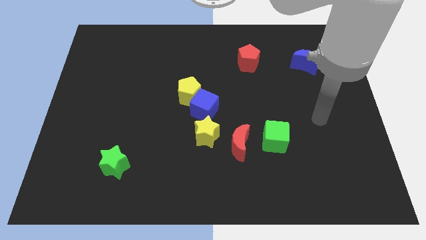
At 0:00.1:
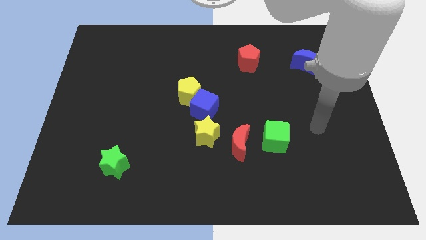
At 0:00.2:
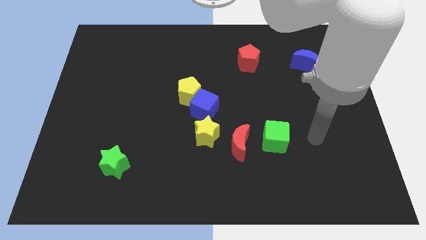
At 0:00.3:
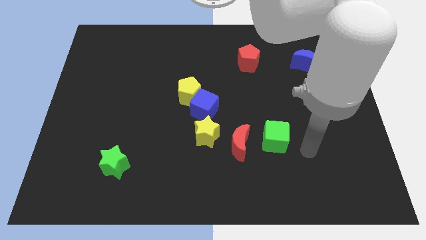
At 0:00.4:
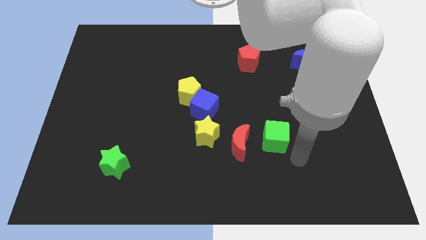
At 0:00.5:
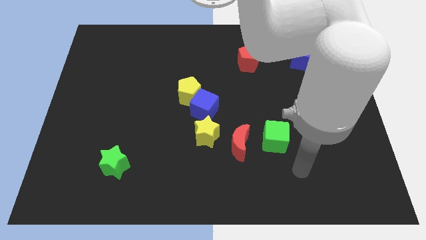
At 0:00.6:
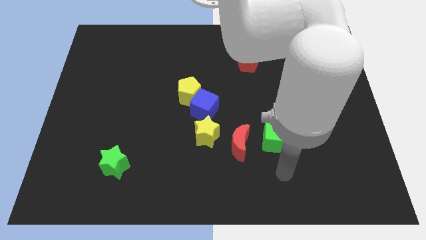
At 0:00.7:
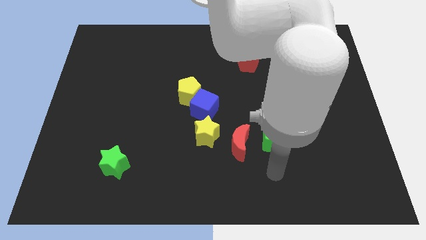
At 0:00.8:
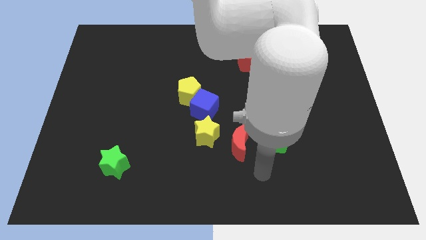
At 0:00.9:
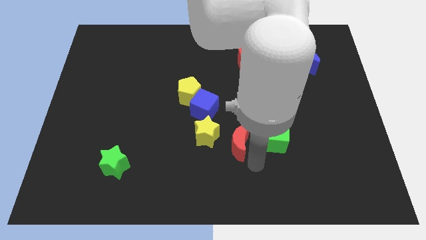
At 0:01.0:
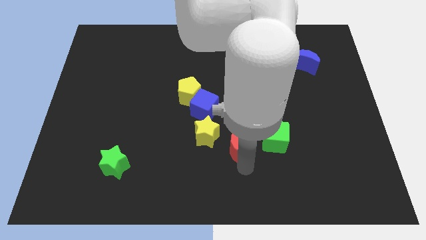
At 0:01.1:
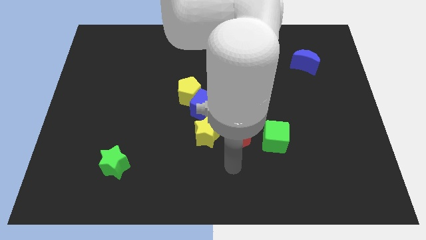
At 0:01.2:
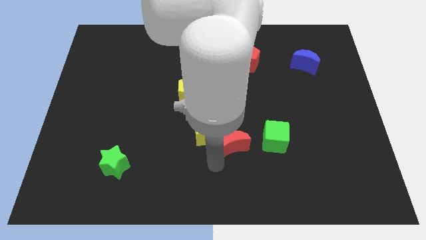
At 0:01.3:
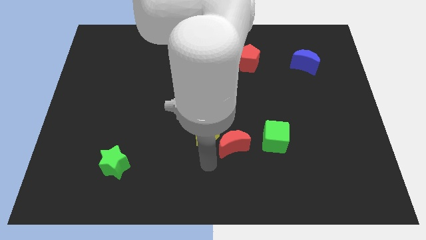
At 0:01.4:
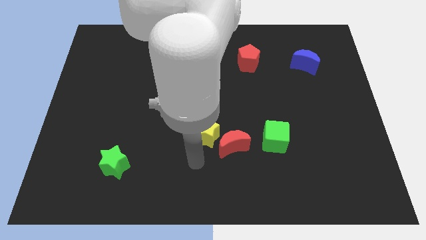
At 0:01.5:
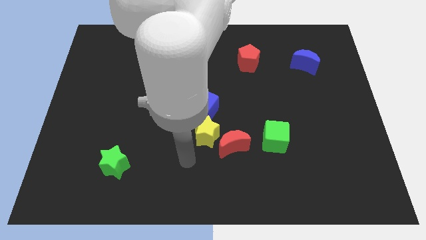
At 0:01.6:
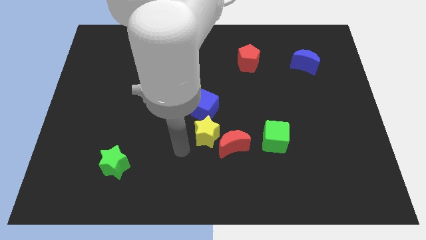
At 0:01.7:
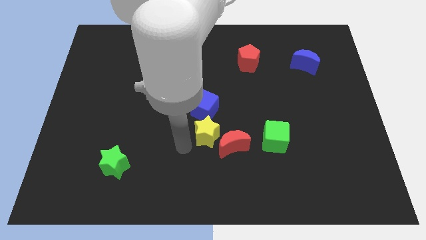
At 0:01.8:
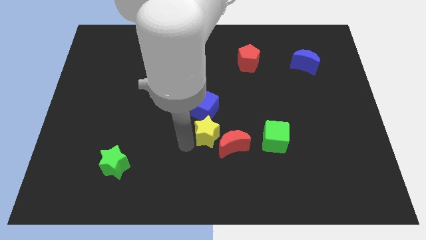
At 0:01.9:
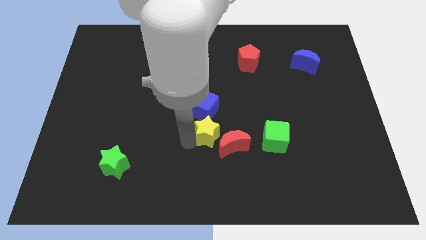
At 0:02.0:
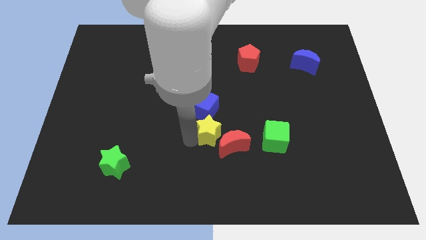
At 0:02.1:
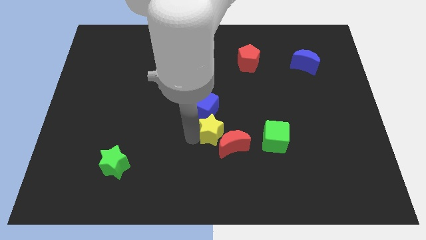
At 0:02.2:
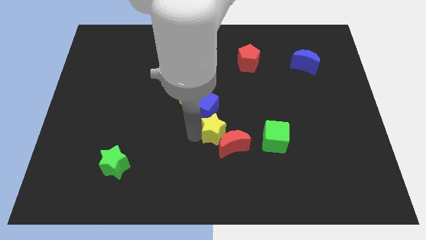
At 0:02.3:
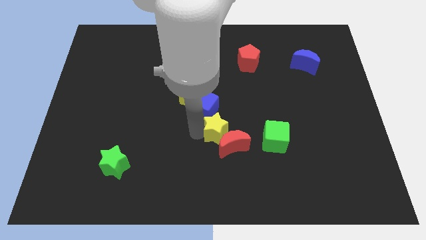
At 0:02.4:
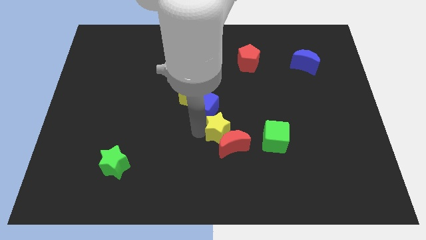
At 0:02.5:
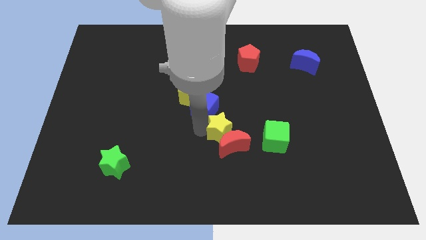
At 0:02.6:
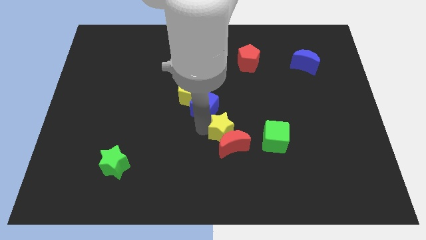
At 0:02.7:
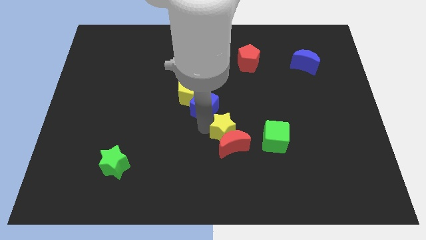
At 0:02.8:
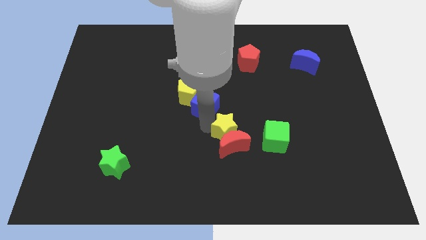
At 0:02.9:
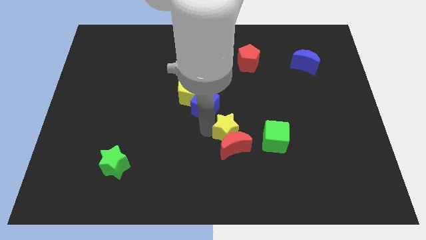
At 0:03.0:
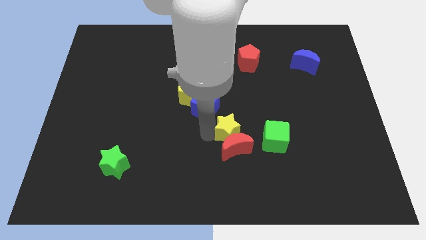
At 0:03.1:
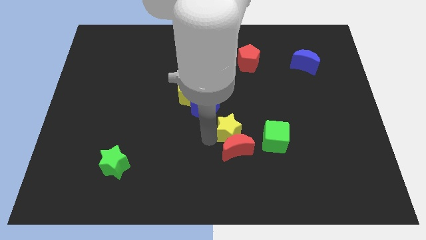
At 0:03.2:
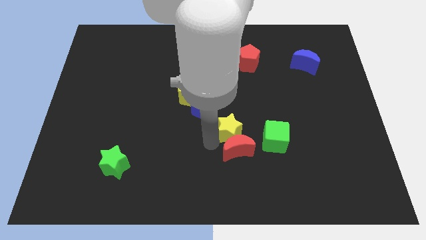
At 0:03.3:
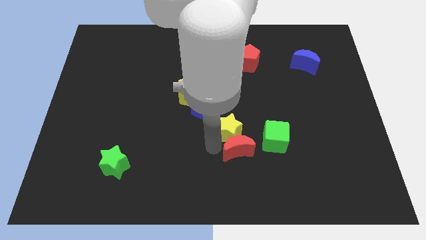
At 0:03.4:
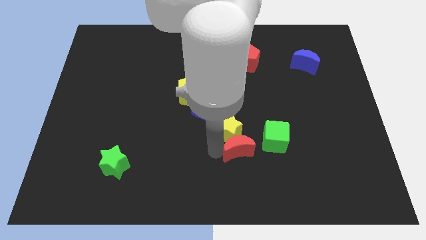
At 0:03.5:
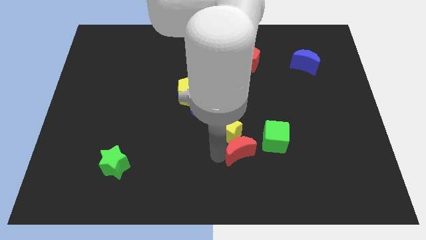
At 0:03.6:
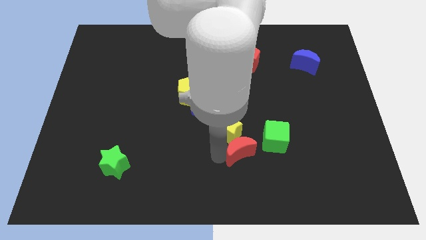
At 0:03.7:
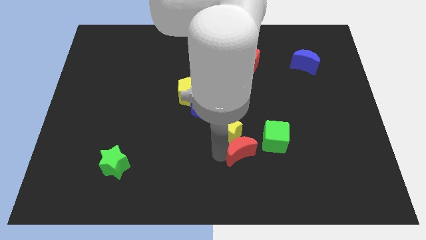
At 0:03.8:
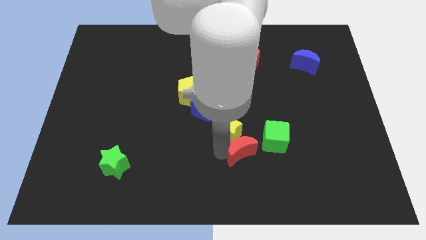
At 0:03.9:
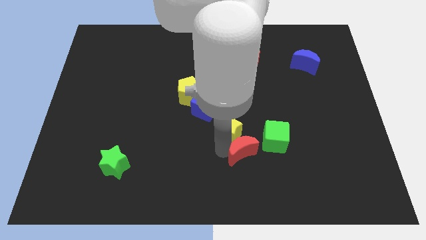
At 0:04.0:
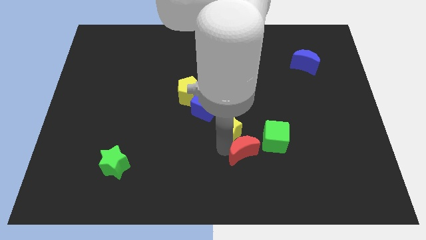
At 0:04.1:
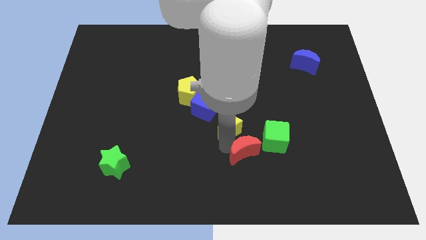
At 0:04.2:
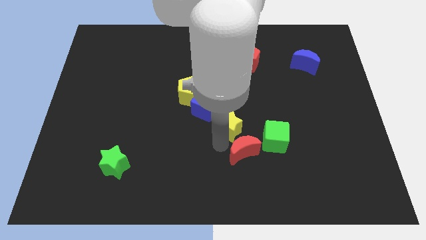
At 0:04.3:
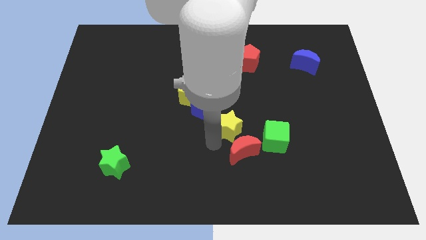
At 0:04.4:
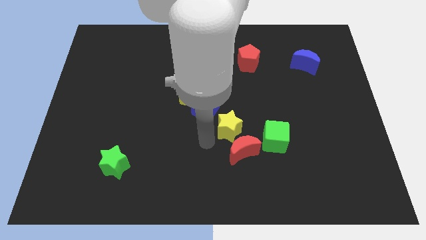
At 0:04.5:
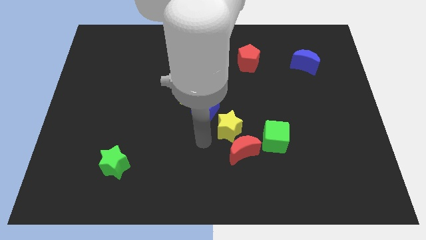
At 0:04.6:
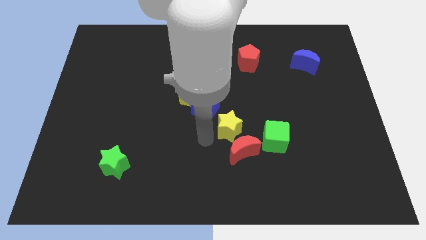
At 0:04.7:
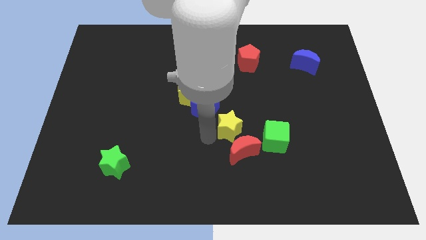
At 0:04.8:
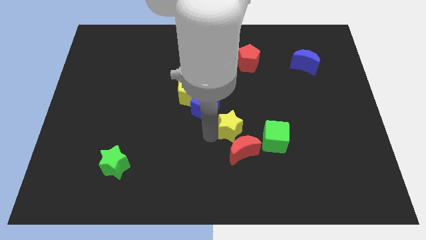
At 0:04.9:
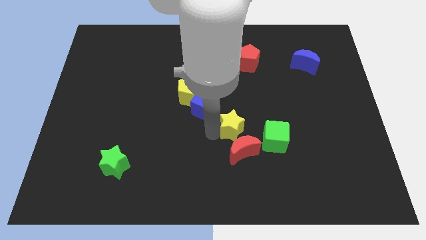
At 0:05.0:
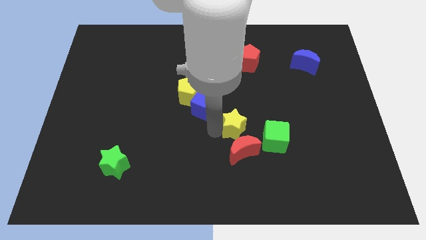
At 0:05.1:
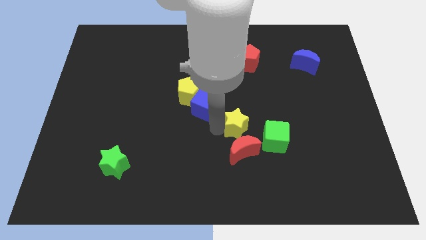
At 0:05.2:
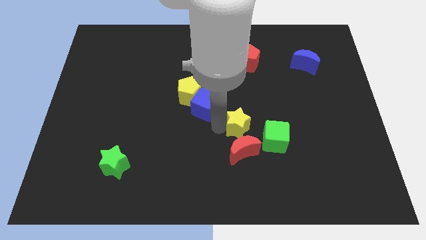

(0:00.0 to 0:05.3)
slightly push the yellow star to the right

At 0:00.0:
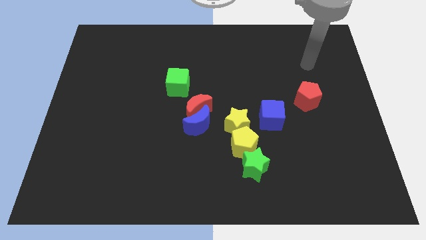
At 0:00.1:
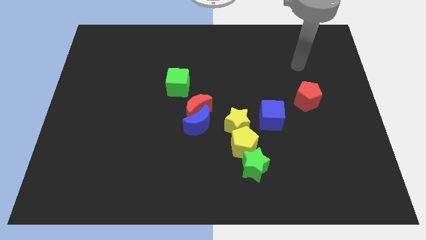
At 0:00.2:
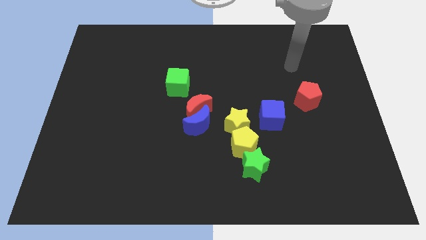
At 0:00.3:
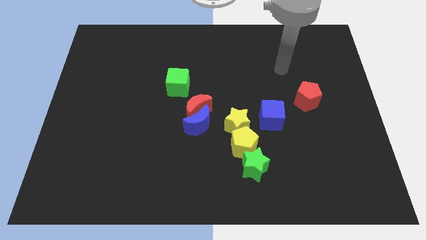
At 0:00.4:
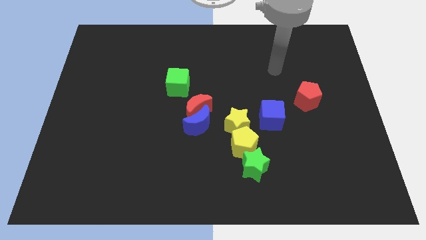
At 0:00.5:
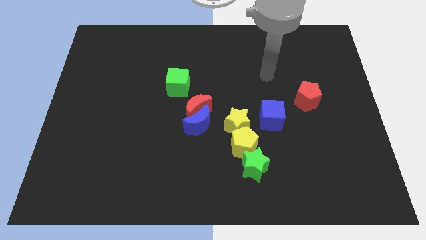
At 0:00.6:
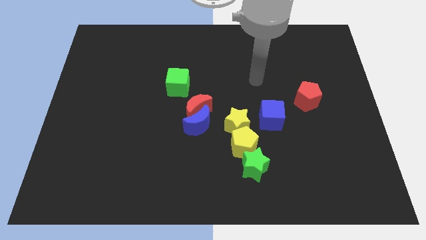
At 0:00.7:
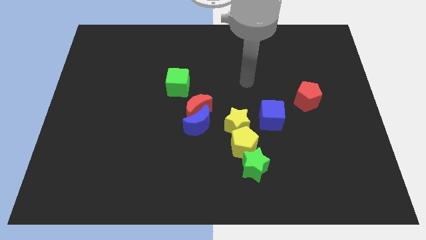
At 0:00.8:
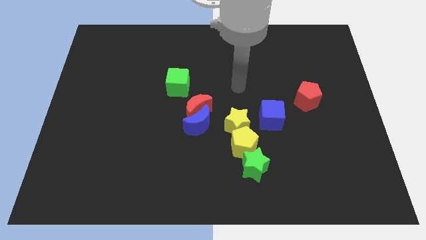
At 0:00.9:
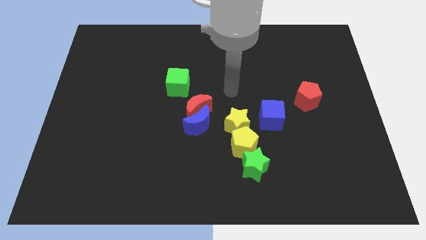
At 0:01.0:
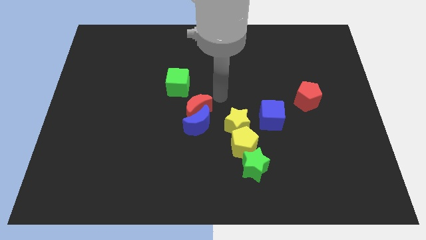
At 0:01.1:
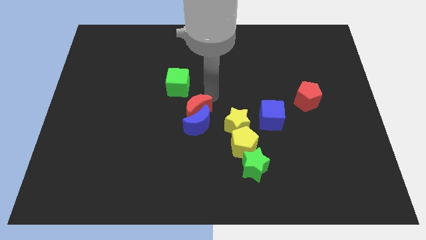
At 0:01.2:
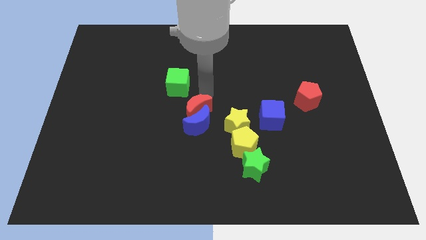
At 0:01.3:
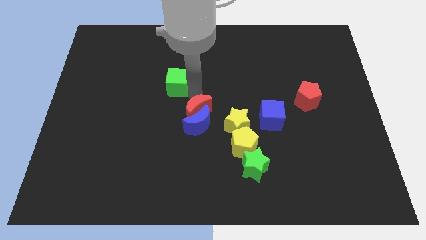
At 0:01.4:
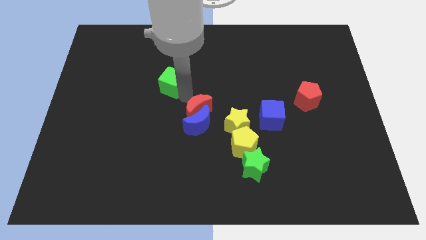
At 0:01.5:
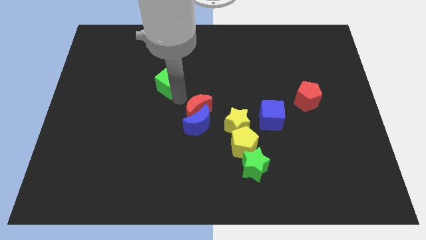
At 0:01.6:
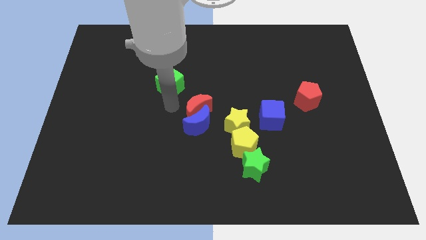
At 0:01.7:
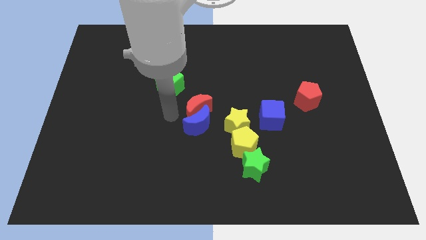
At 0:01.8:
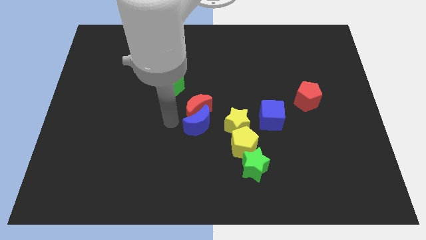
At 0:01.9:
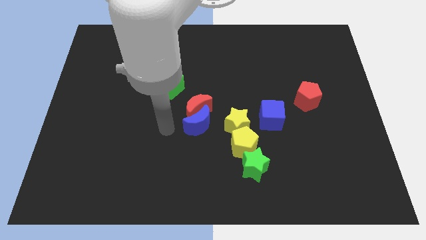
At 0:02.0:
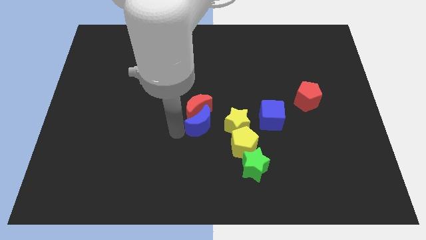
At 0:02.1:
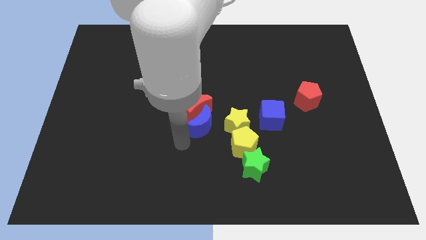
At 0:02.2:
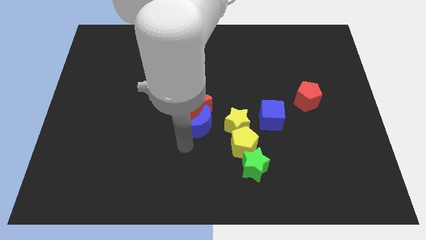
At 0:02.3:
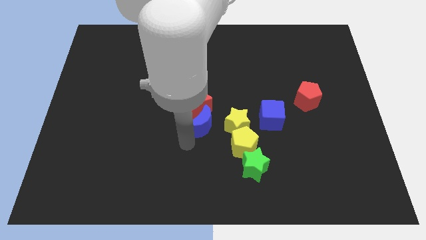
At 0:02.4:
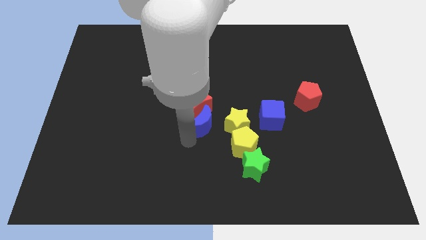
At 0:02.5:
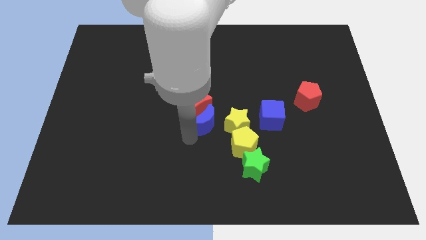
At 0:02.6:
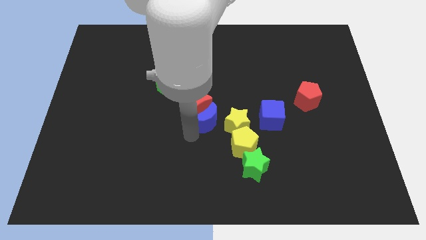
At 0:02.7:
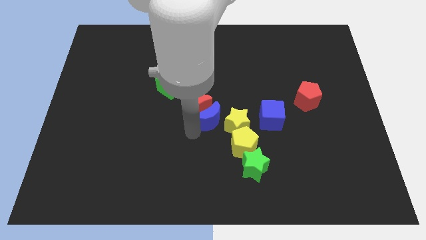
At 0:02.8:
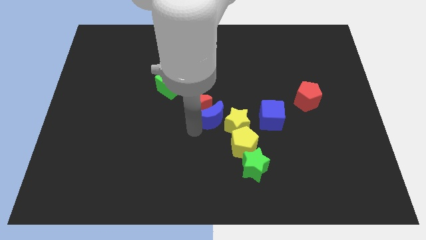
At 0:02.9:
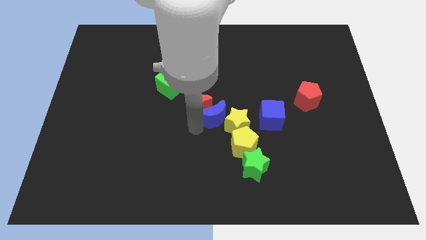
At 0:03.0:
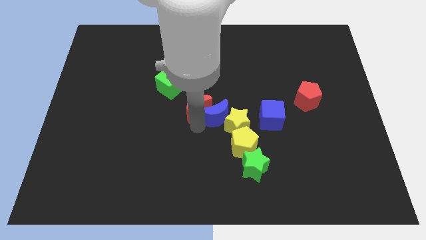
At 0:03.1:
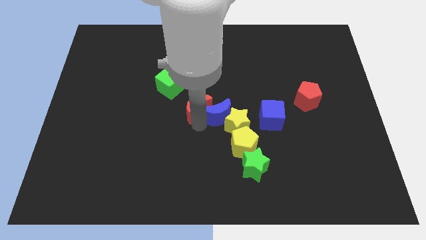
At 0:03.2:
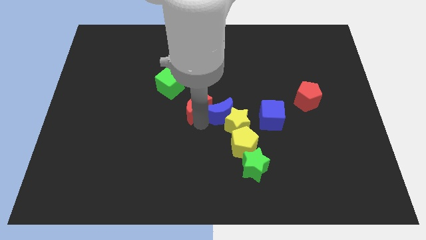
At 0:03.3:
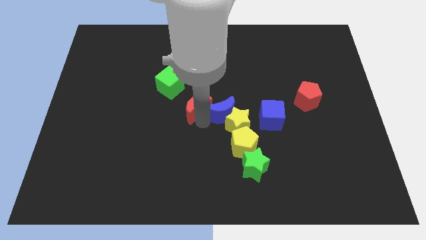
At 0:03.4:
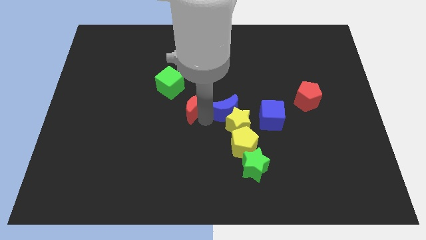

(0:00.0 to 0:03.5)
push the blue moon a bit up and to the right
